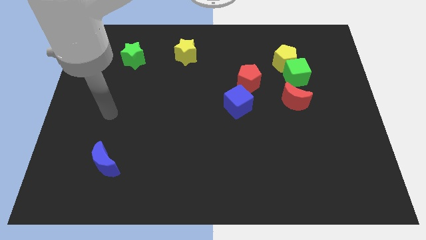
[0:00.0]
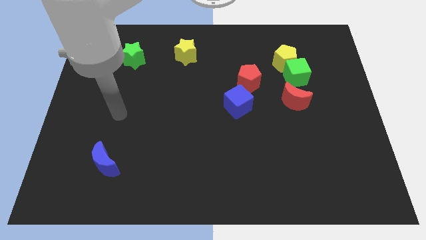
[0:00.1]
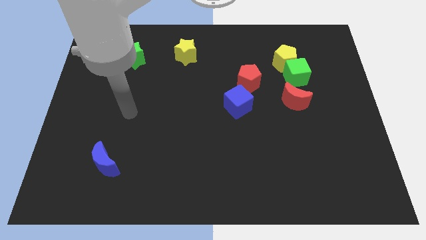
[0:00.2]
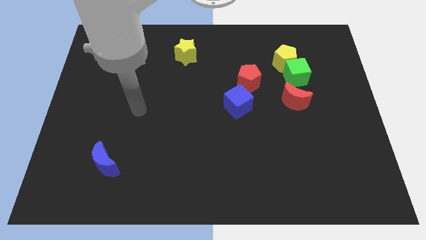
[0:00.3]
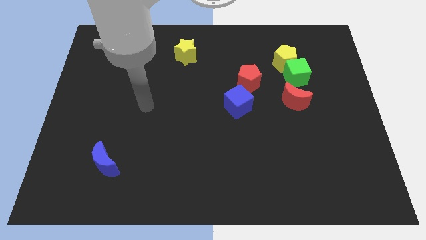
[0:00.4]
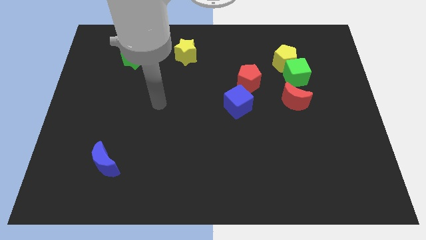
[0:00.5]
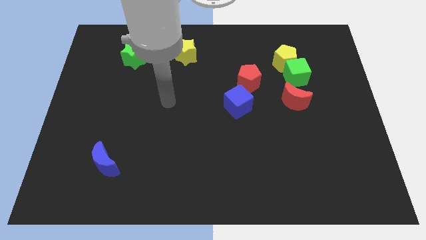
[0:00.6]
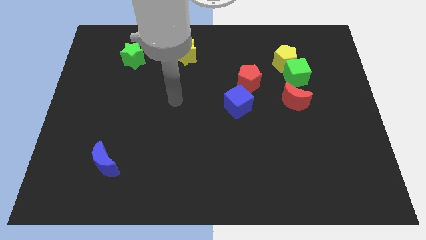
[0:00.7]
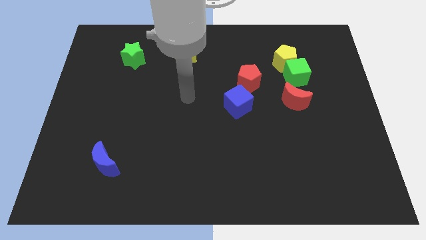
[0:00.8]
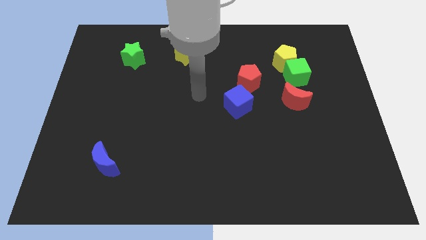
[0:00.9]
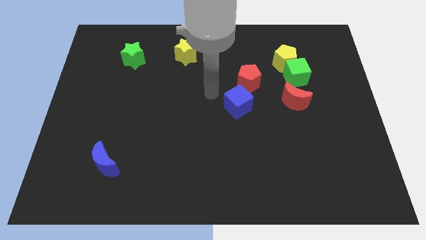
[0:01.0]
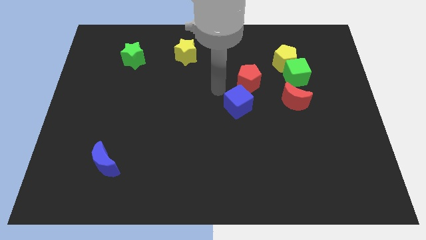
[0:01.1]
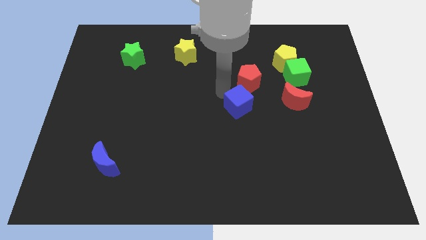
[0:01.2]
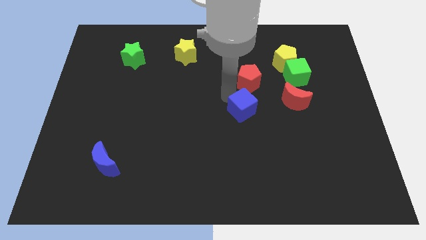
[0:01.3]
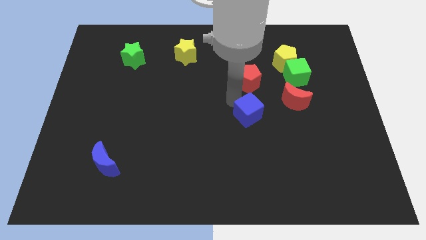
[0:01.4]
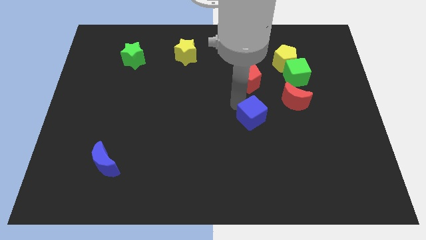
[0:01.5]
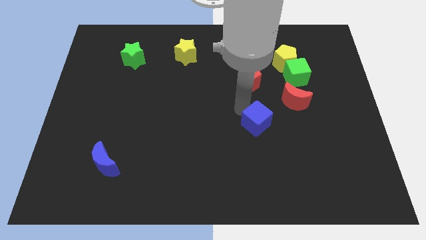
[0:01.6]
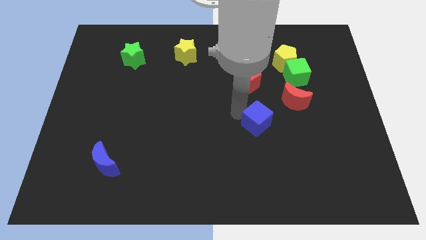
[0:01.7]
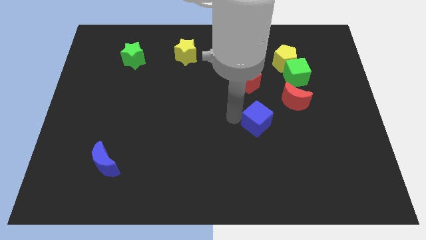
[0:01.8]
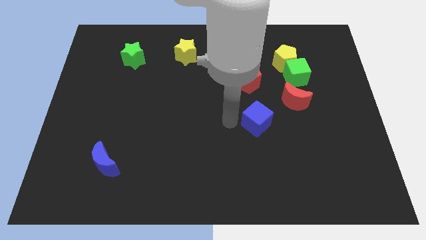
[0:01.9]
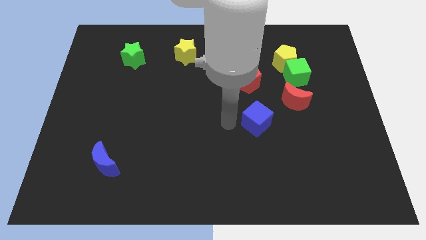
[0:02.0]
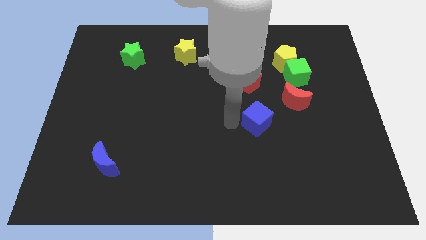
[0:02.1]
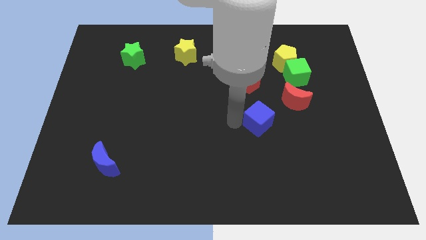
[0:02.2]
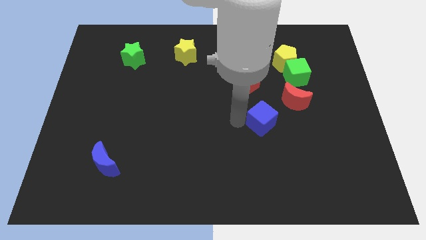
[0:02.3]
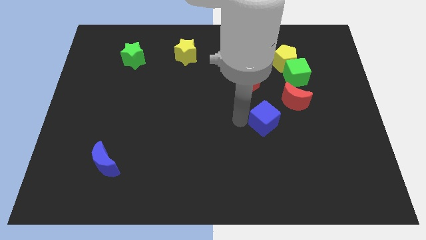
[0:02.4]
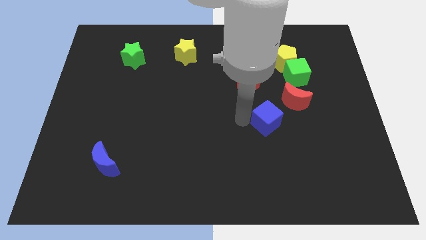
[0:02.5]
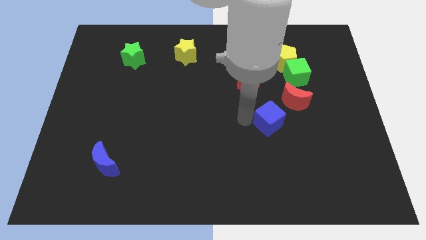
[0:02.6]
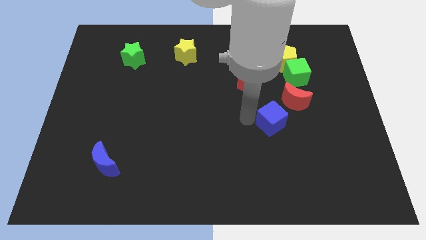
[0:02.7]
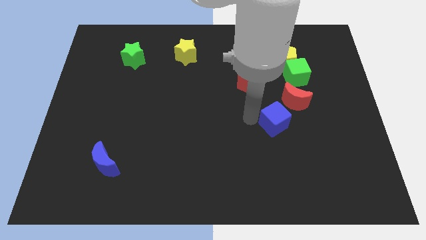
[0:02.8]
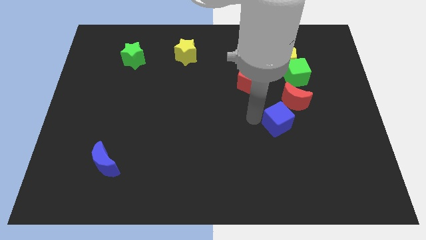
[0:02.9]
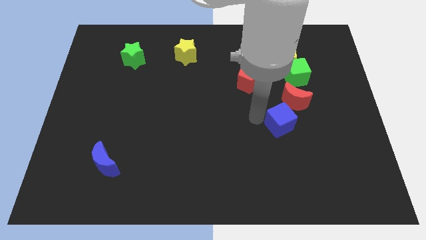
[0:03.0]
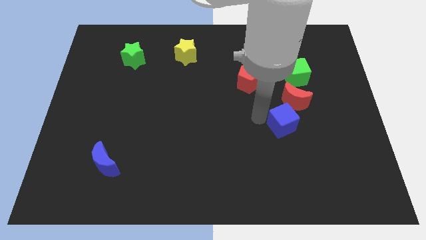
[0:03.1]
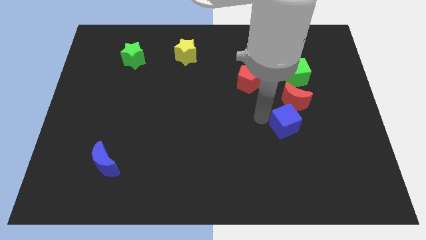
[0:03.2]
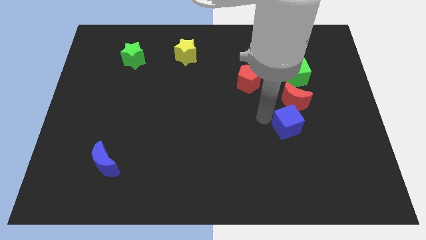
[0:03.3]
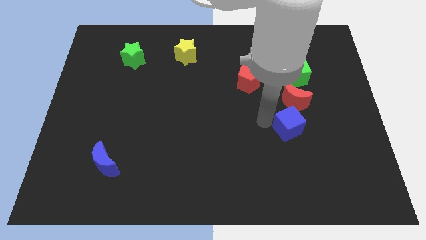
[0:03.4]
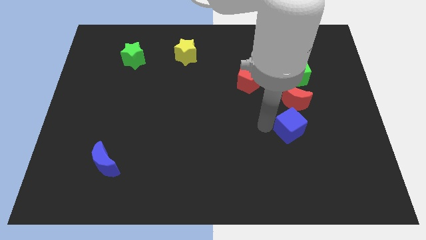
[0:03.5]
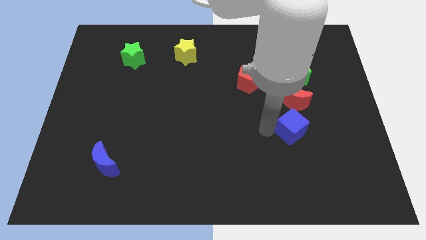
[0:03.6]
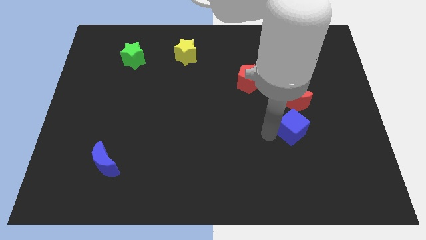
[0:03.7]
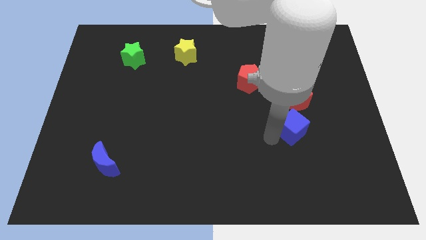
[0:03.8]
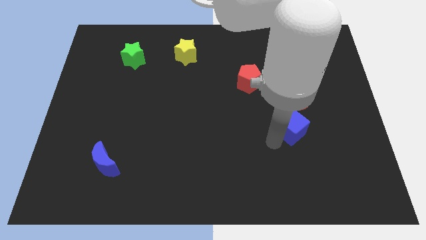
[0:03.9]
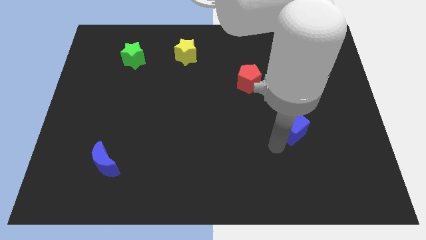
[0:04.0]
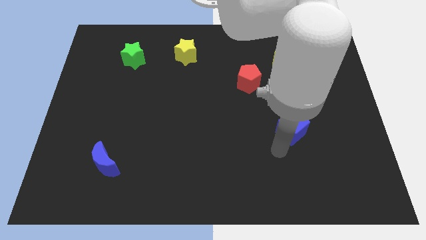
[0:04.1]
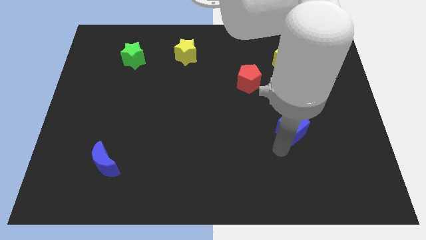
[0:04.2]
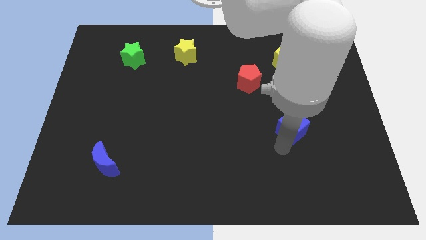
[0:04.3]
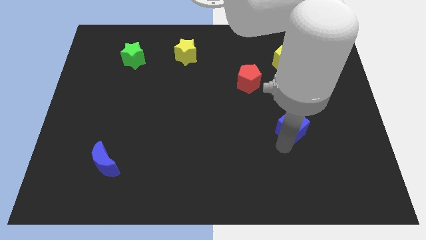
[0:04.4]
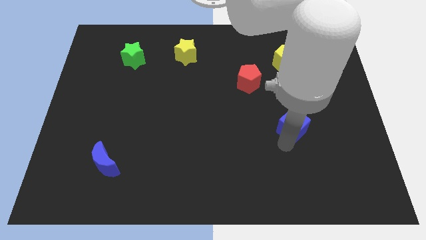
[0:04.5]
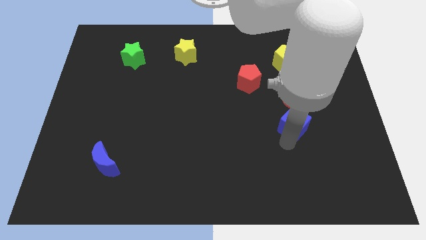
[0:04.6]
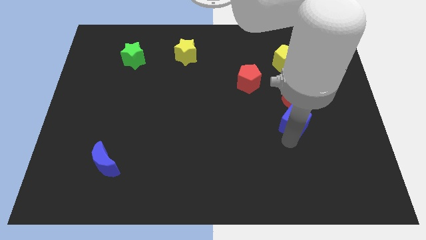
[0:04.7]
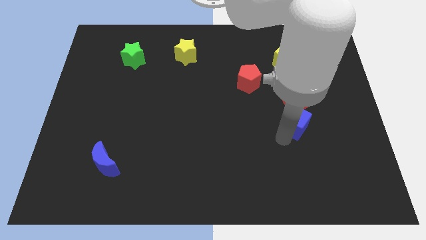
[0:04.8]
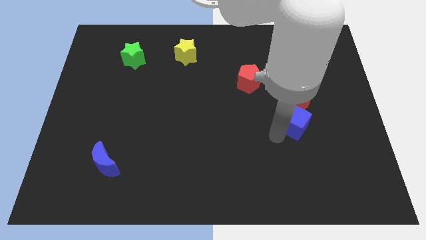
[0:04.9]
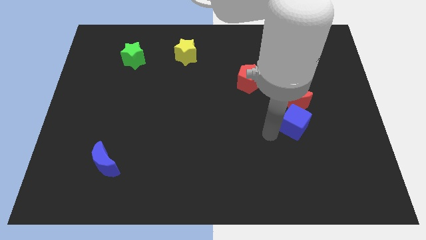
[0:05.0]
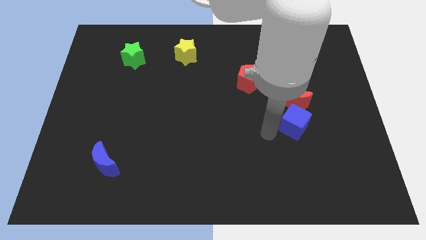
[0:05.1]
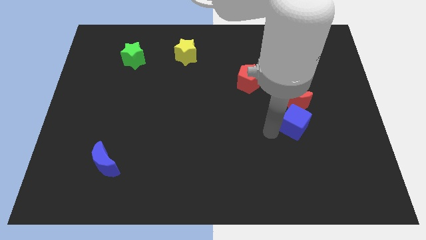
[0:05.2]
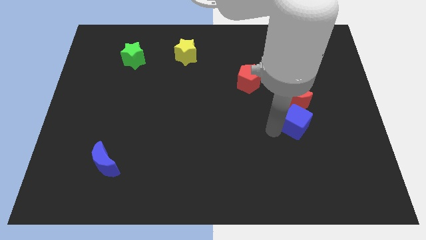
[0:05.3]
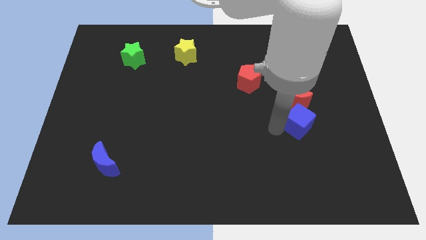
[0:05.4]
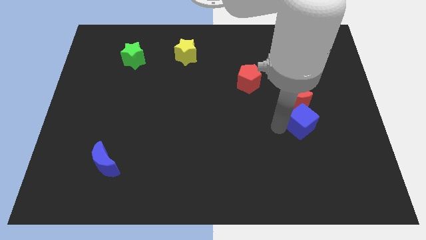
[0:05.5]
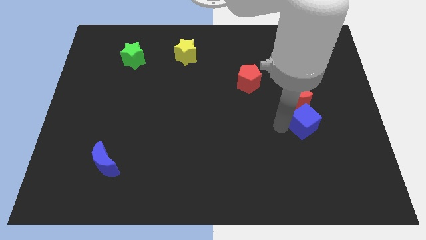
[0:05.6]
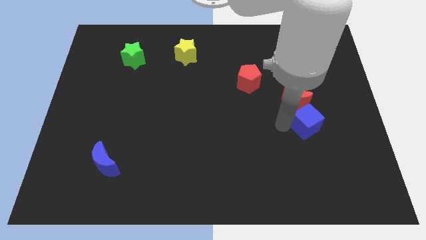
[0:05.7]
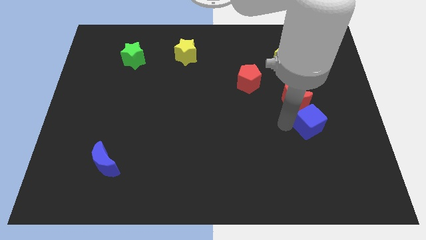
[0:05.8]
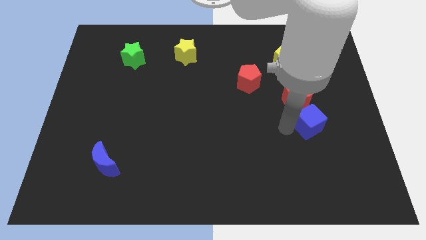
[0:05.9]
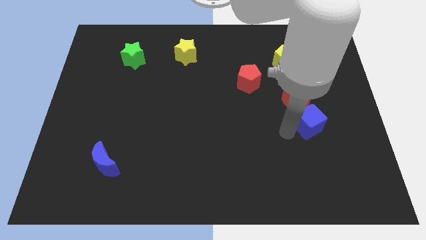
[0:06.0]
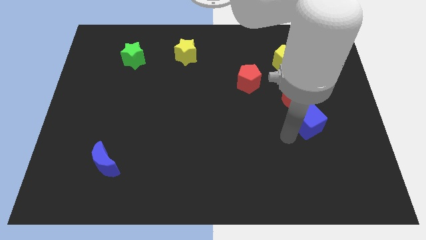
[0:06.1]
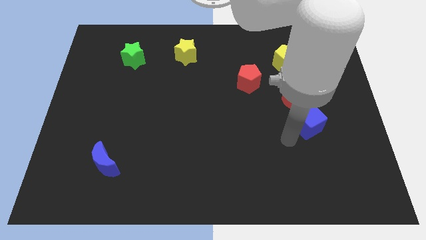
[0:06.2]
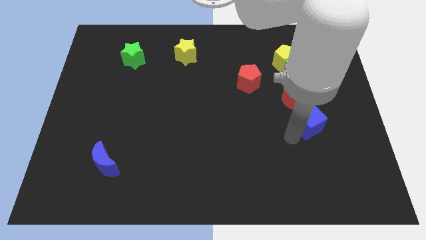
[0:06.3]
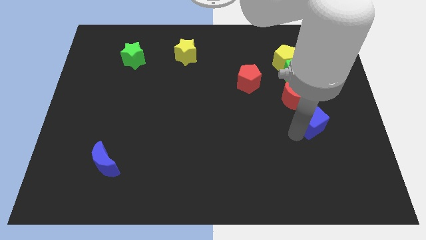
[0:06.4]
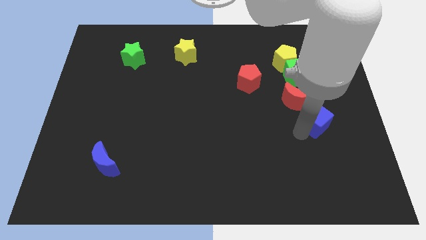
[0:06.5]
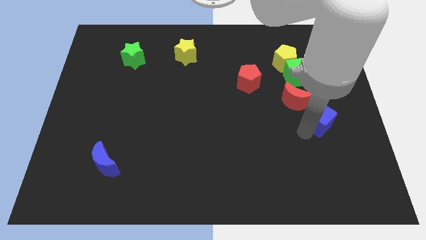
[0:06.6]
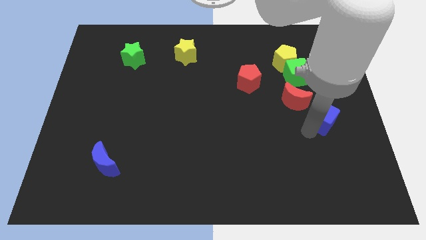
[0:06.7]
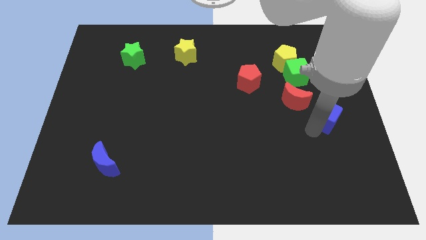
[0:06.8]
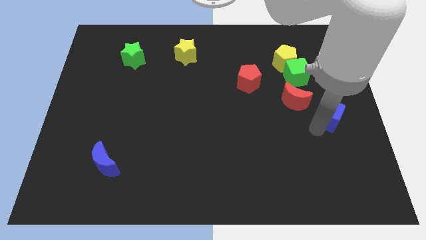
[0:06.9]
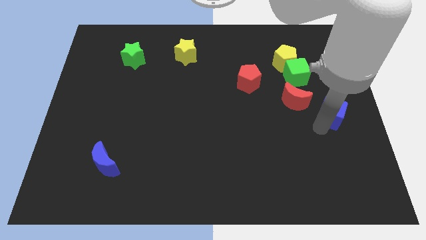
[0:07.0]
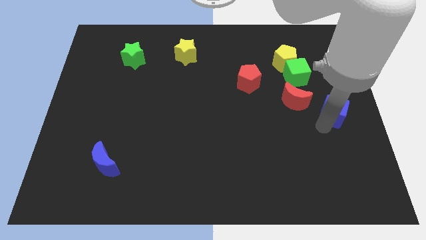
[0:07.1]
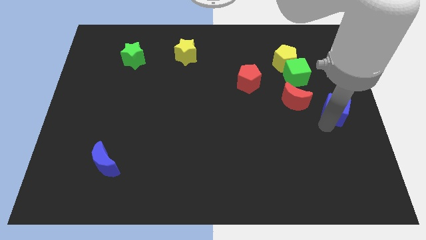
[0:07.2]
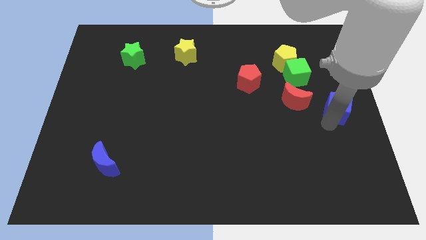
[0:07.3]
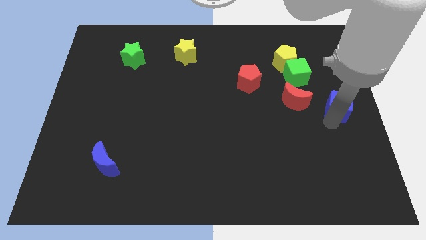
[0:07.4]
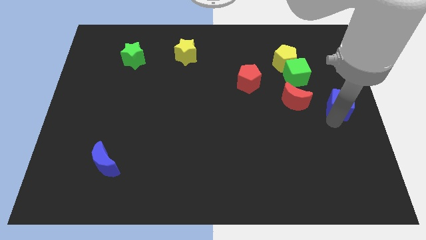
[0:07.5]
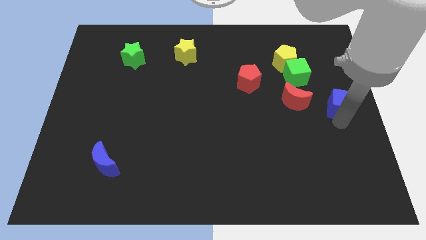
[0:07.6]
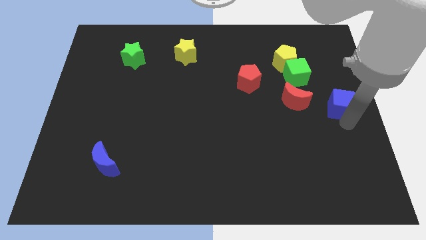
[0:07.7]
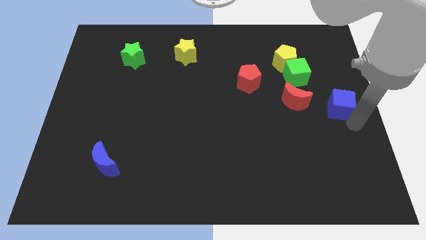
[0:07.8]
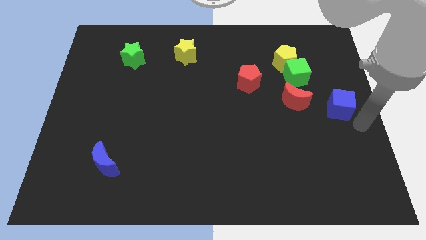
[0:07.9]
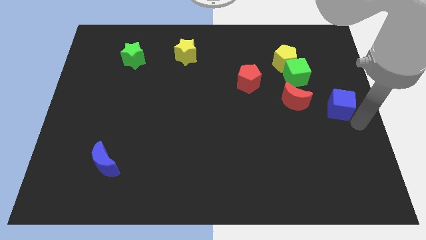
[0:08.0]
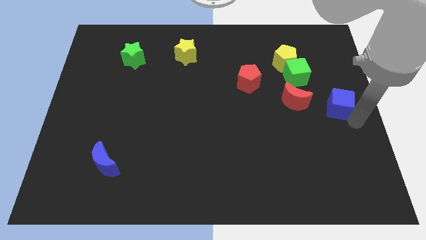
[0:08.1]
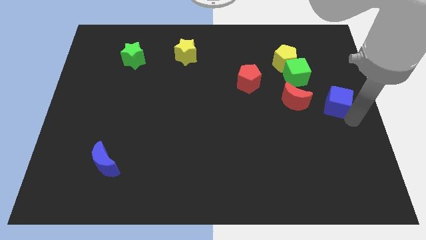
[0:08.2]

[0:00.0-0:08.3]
slide the blue cube diagonally down and to the right of the green cube
